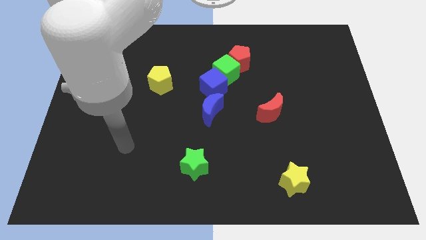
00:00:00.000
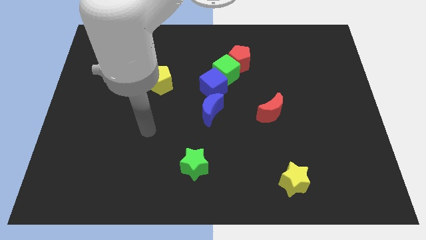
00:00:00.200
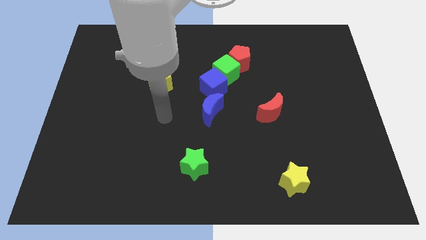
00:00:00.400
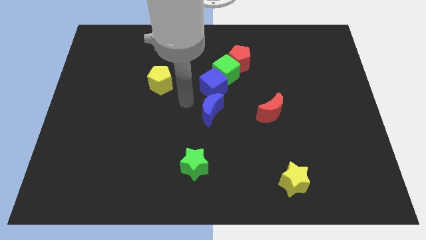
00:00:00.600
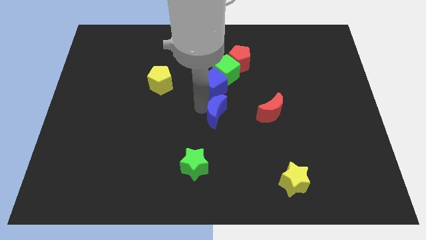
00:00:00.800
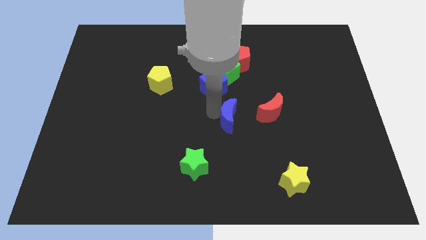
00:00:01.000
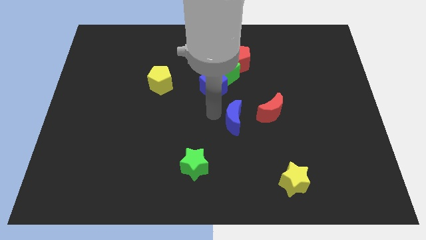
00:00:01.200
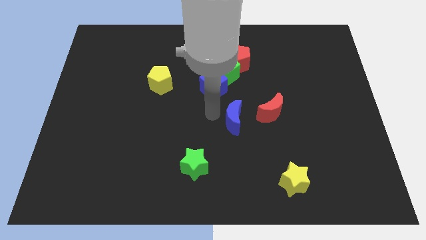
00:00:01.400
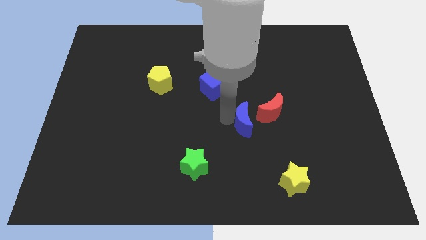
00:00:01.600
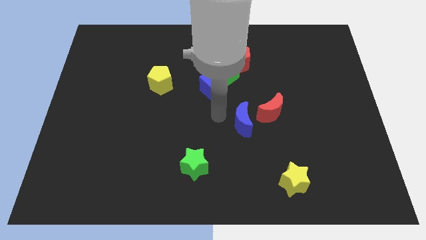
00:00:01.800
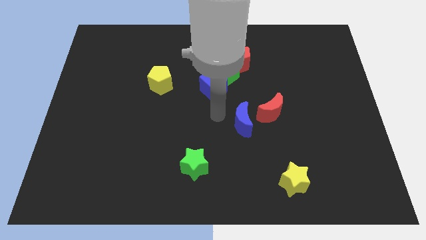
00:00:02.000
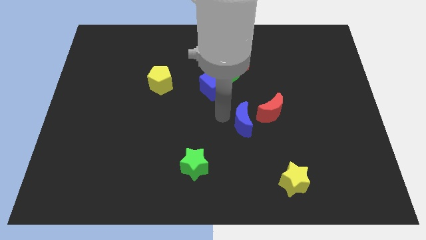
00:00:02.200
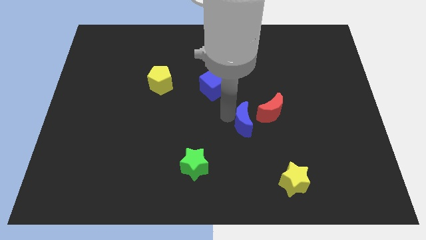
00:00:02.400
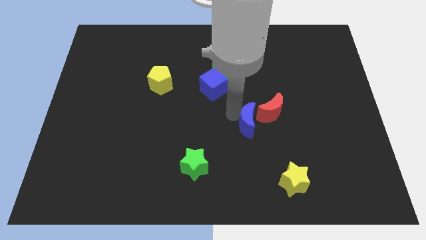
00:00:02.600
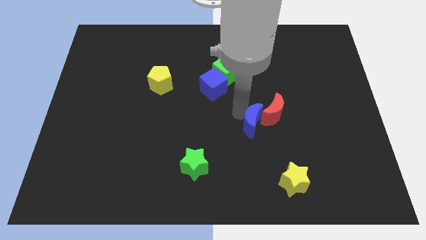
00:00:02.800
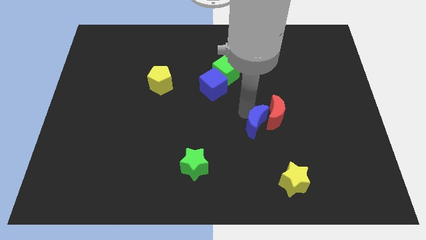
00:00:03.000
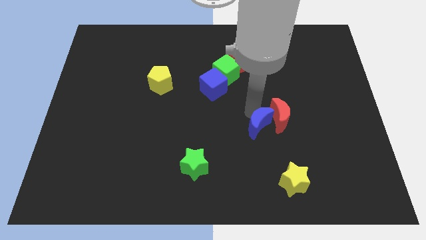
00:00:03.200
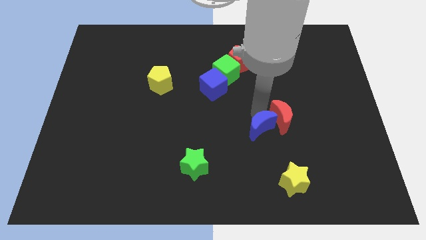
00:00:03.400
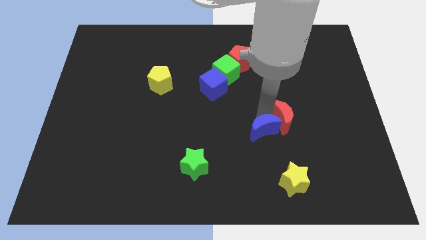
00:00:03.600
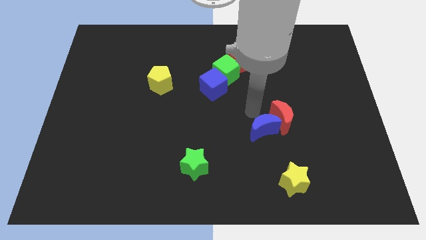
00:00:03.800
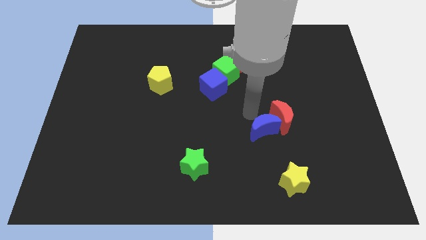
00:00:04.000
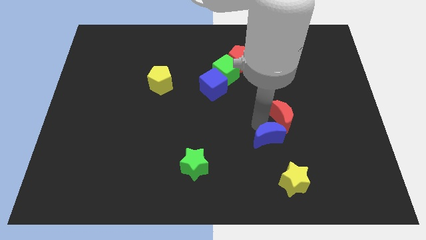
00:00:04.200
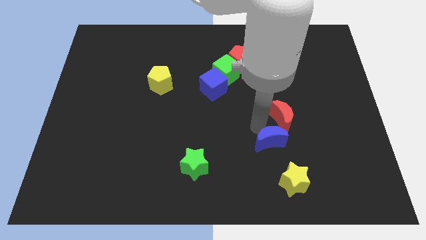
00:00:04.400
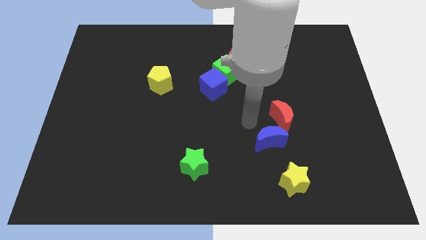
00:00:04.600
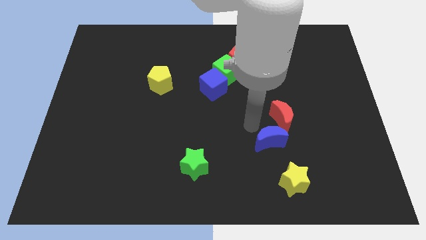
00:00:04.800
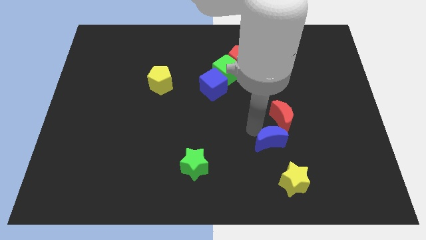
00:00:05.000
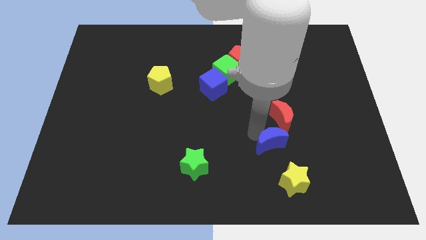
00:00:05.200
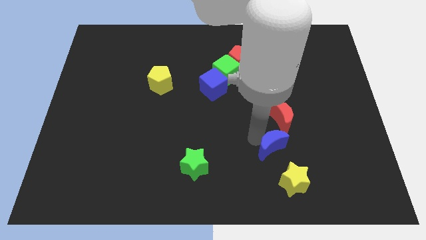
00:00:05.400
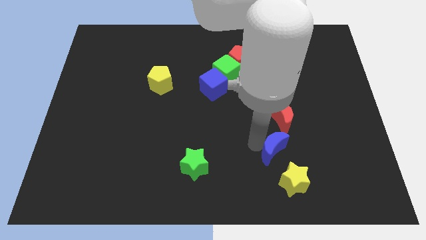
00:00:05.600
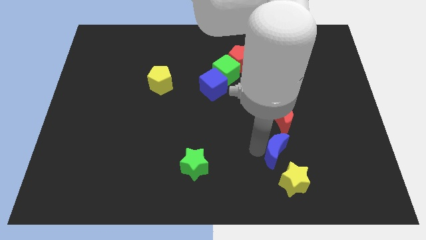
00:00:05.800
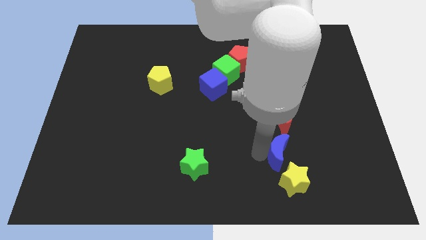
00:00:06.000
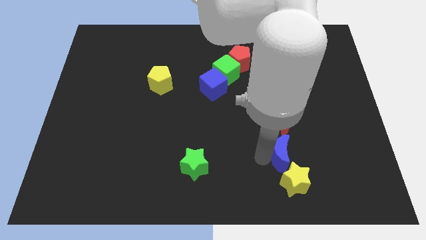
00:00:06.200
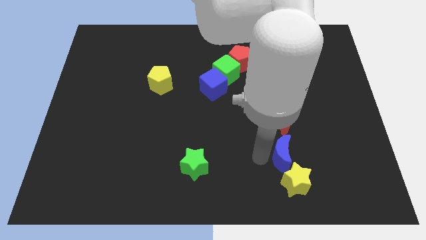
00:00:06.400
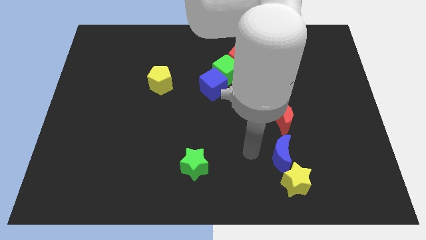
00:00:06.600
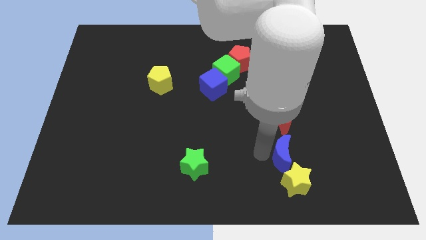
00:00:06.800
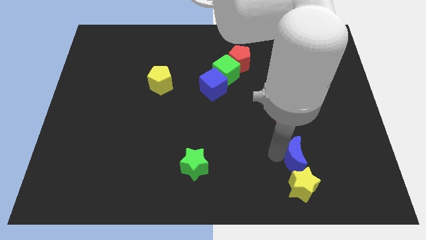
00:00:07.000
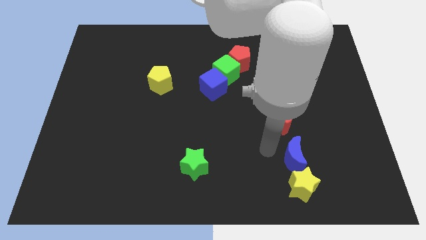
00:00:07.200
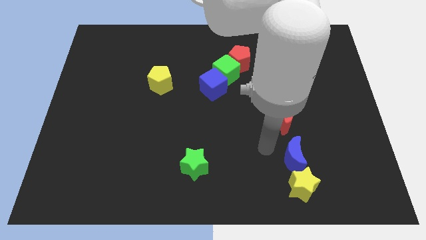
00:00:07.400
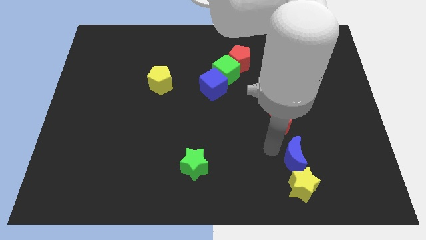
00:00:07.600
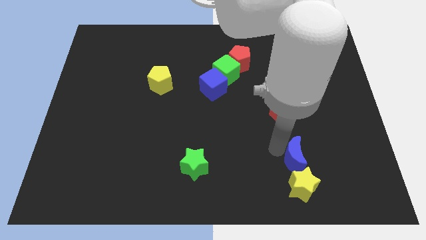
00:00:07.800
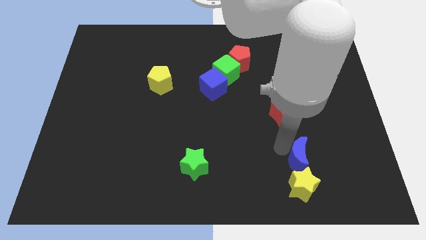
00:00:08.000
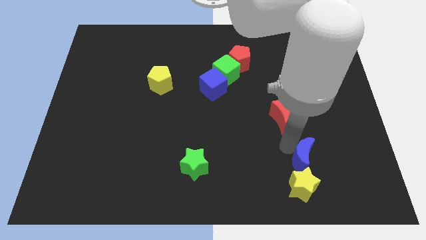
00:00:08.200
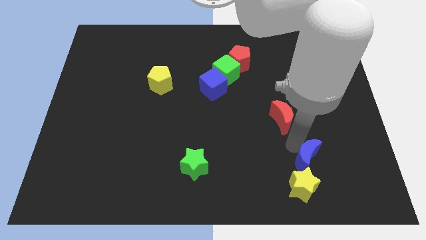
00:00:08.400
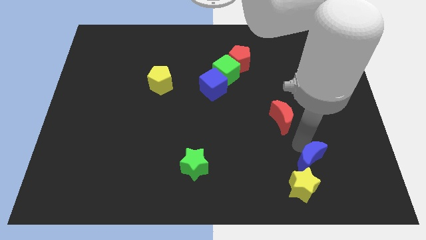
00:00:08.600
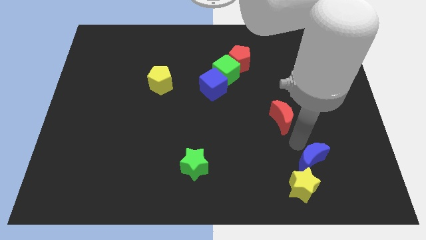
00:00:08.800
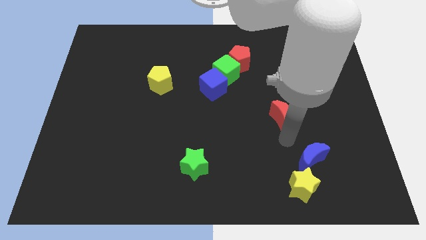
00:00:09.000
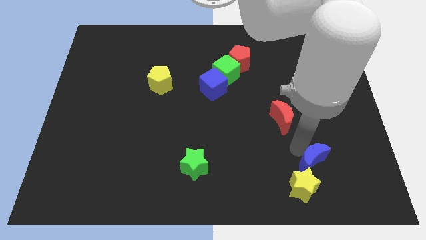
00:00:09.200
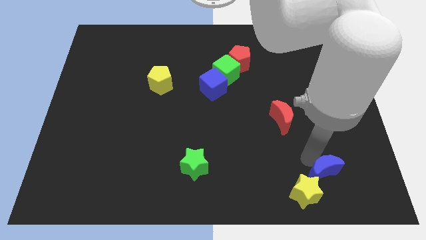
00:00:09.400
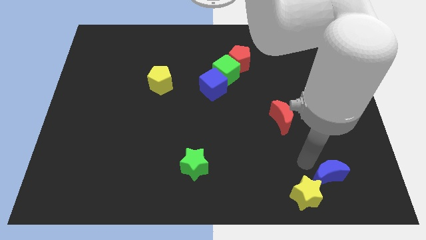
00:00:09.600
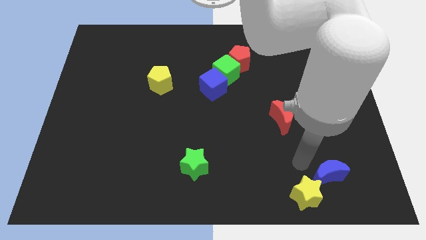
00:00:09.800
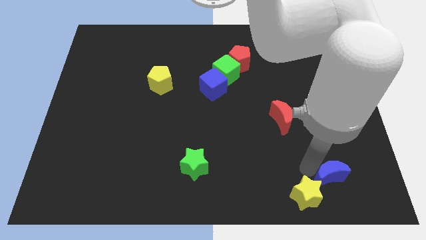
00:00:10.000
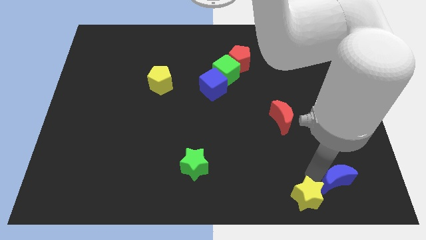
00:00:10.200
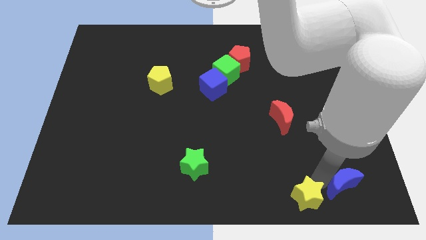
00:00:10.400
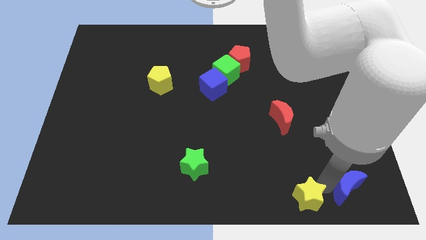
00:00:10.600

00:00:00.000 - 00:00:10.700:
put the blue moon to the bottom right of the board
